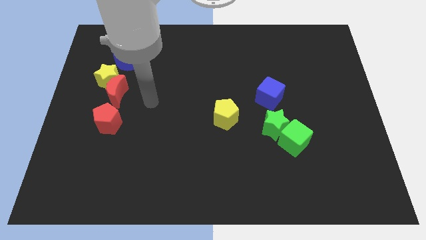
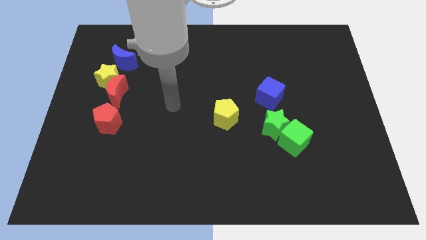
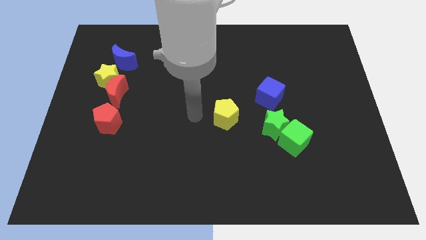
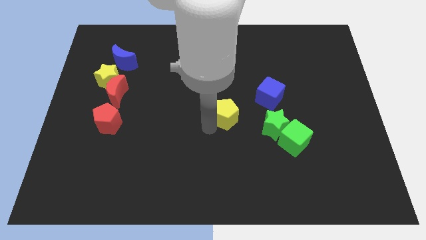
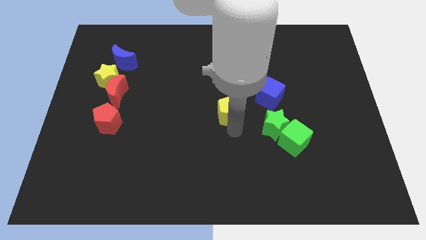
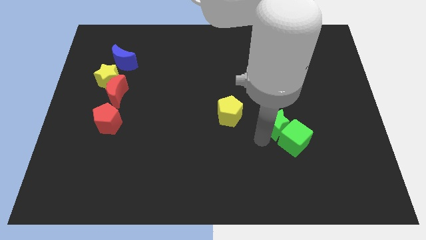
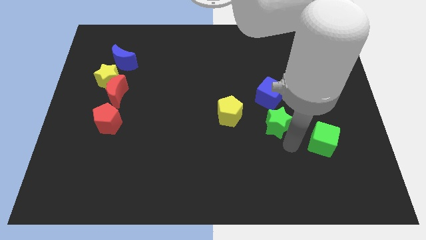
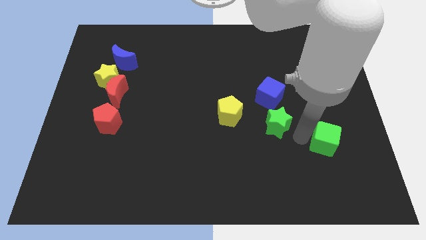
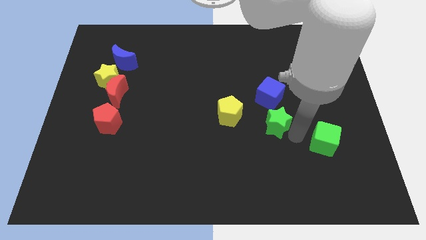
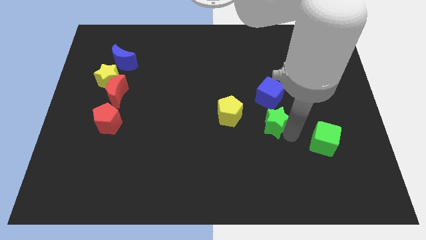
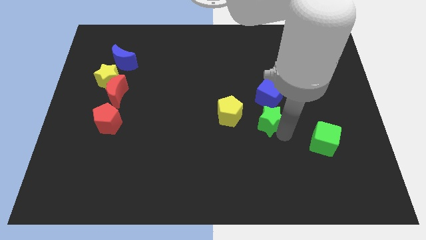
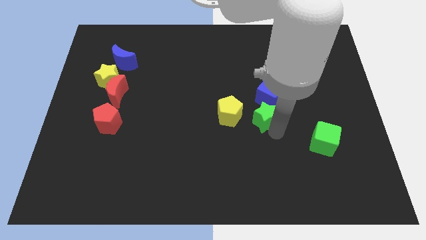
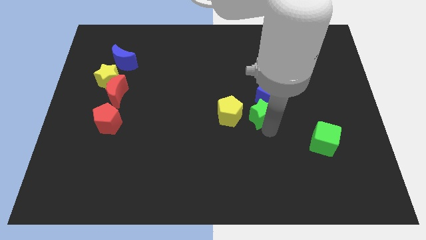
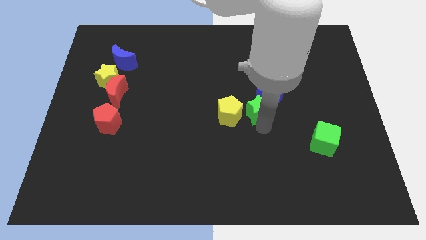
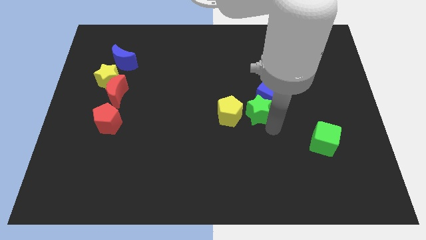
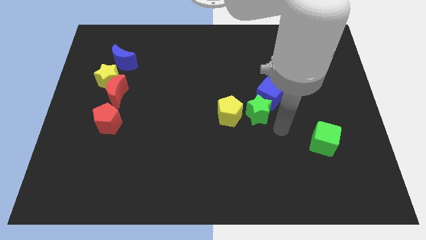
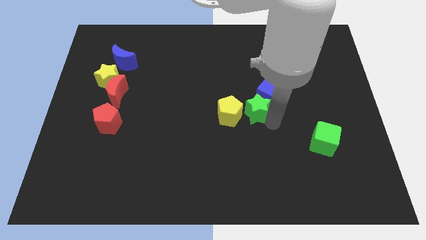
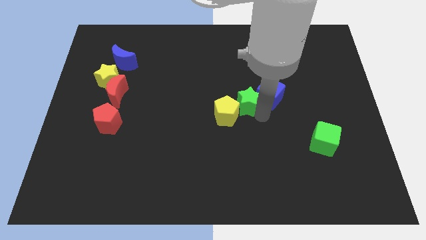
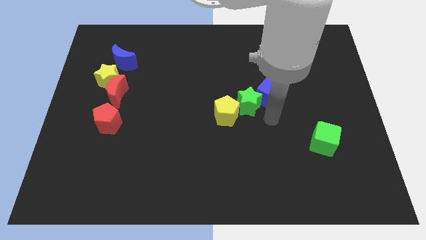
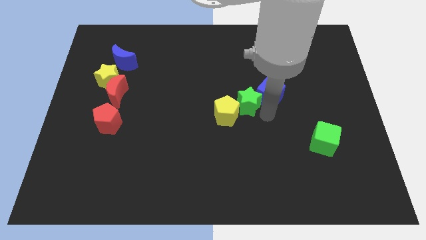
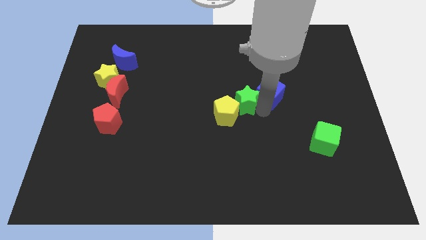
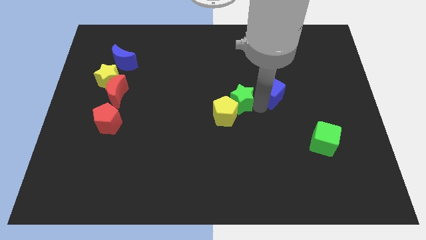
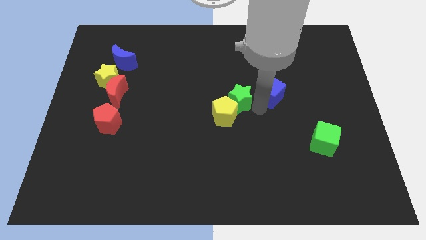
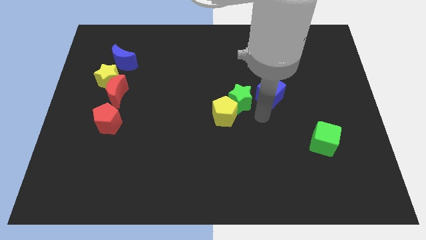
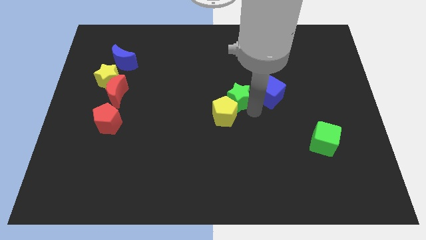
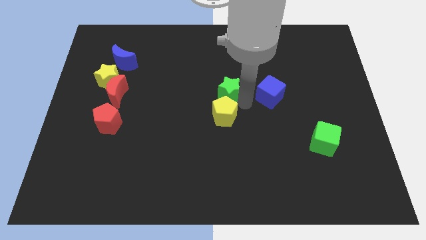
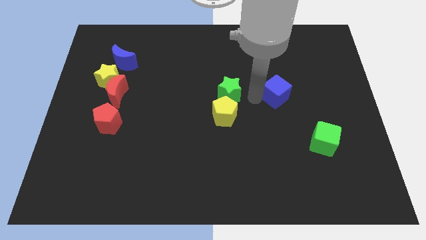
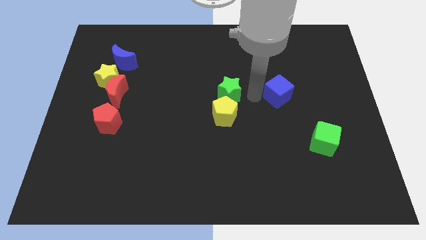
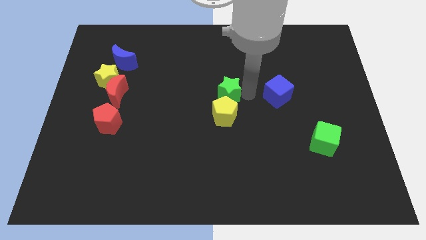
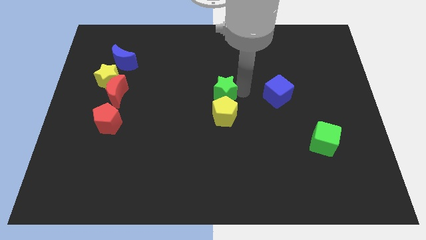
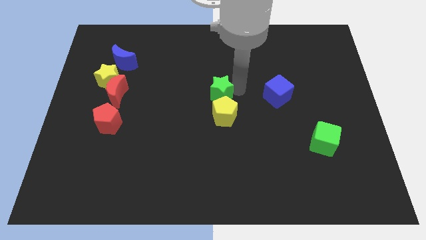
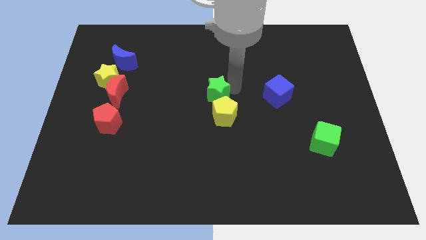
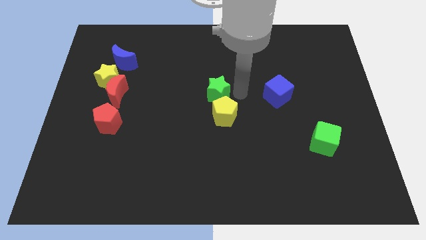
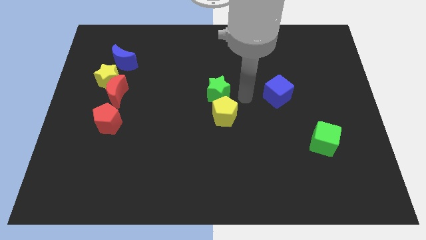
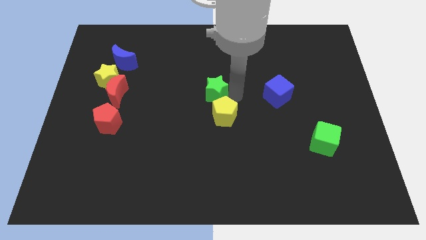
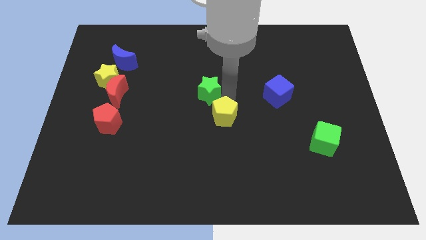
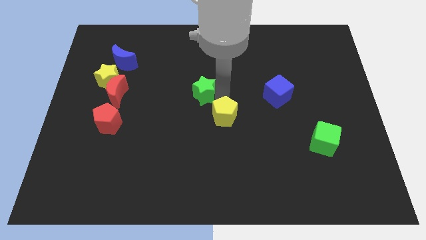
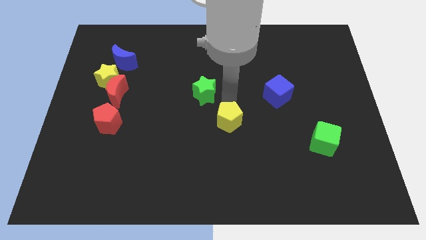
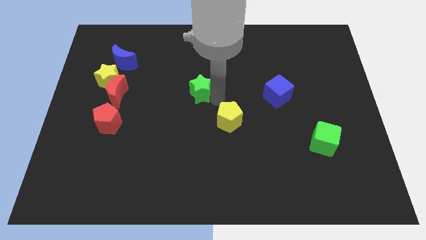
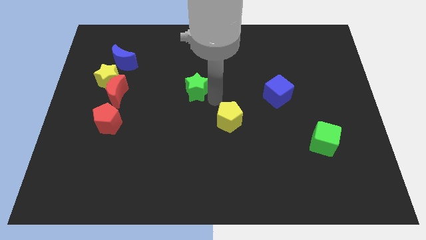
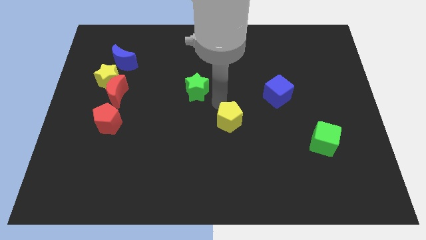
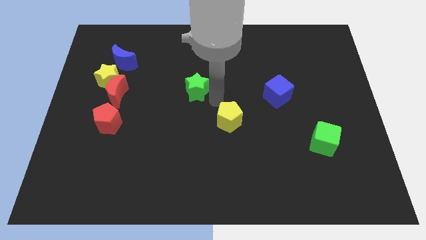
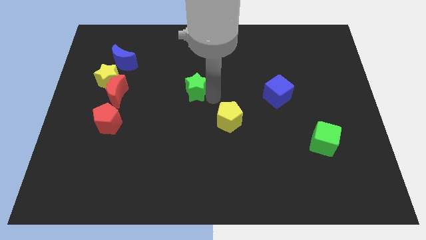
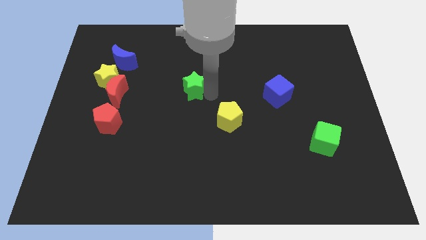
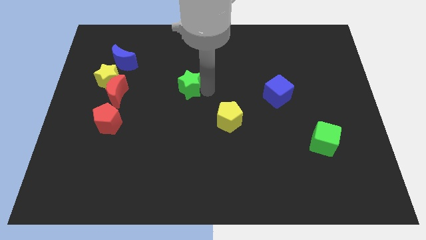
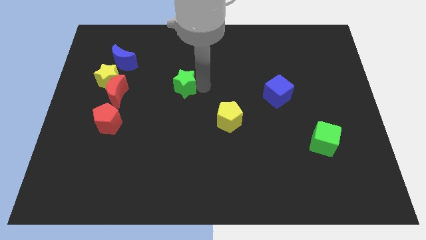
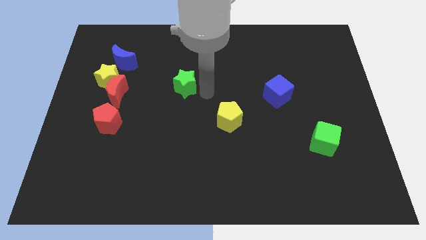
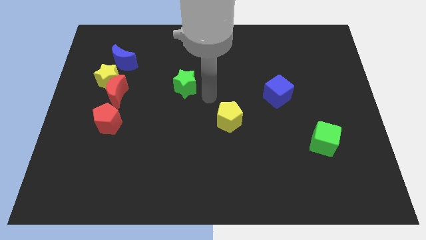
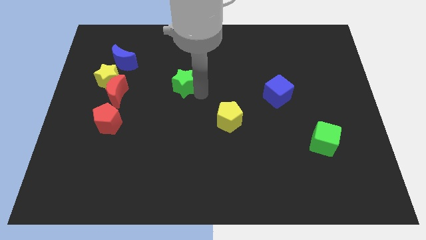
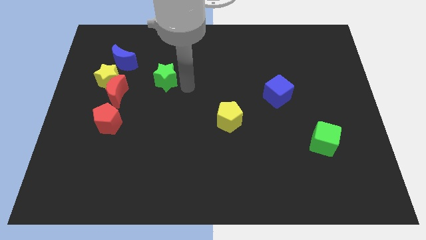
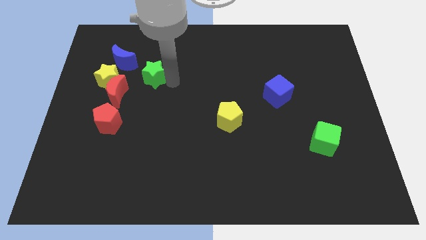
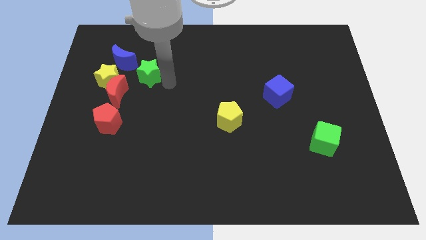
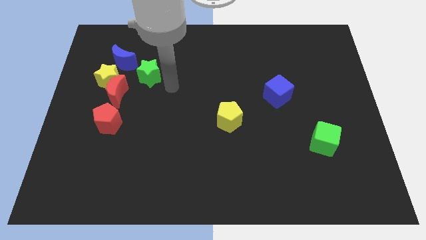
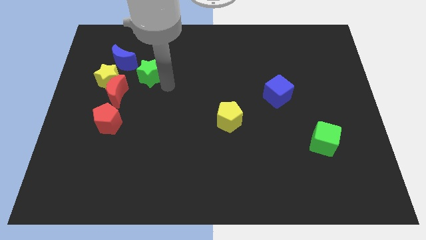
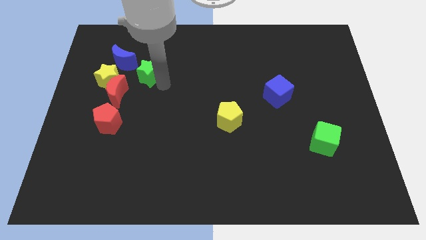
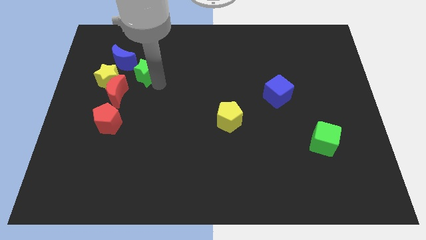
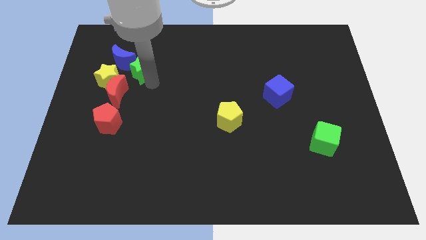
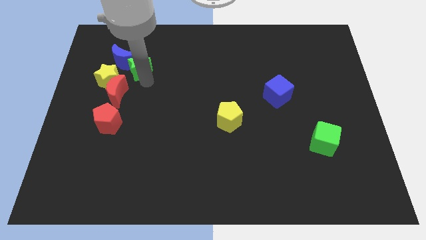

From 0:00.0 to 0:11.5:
push the green star close to the blue moon

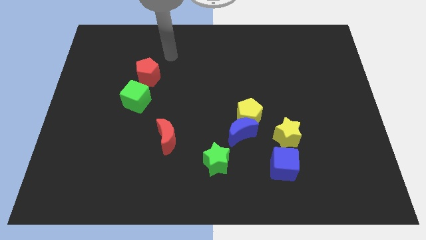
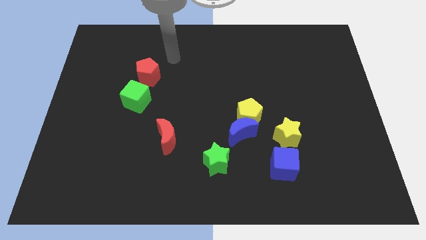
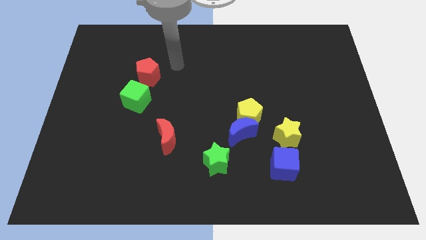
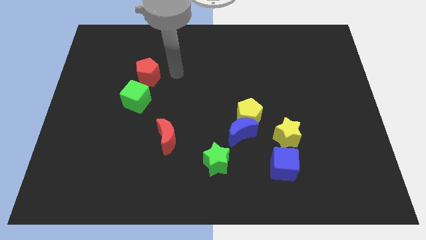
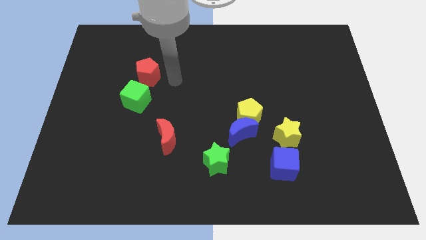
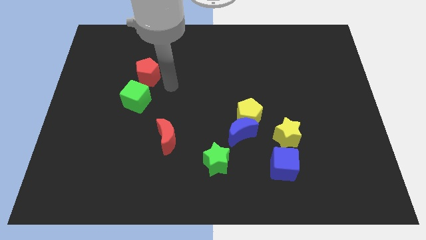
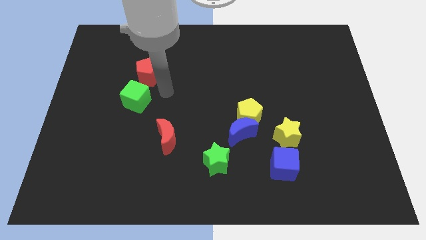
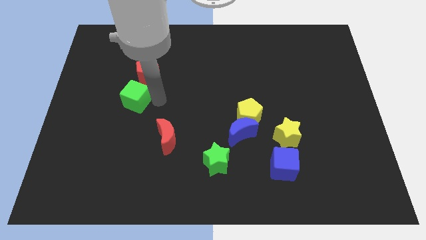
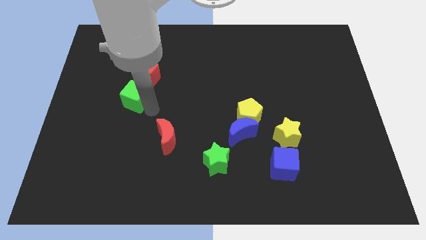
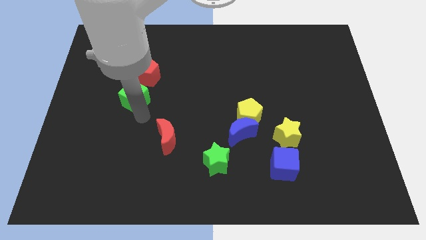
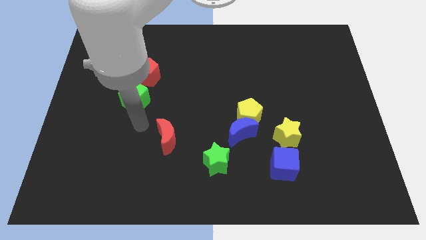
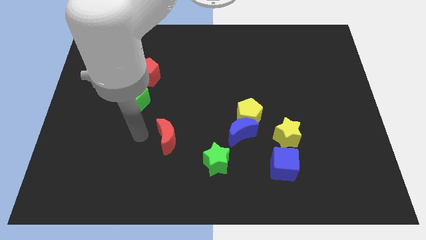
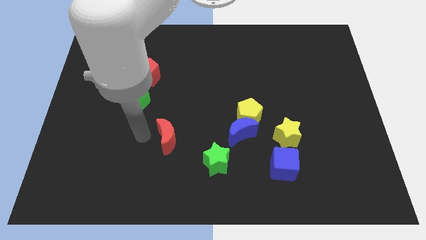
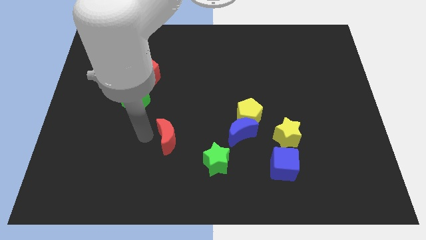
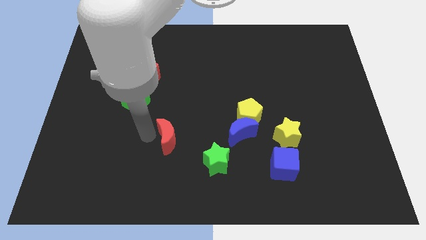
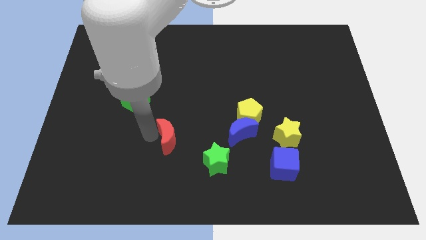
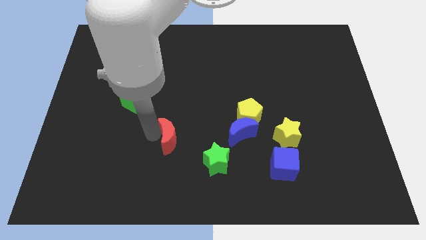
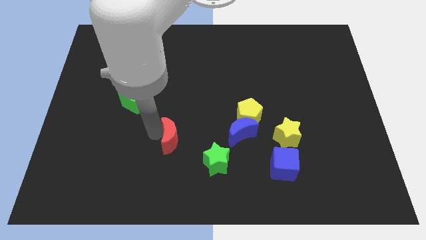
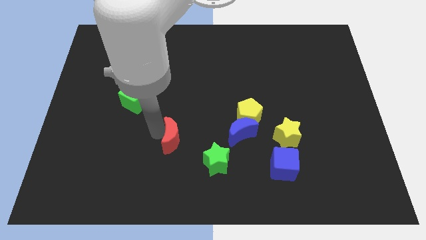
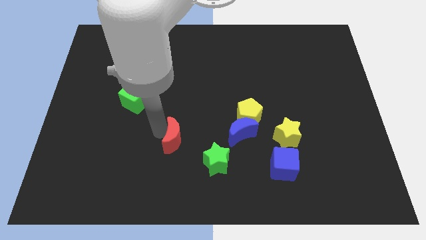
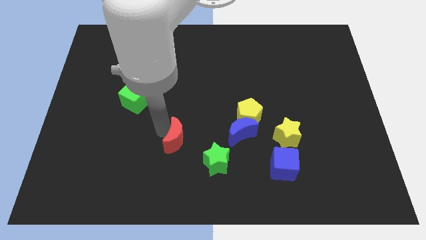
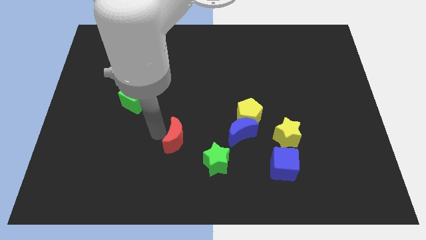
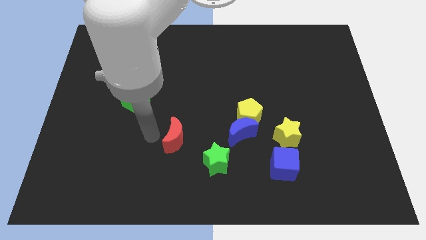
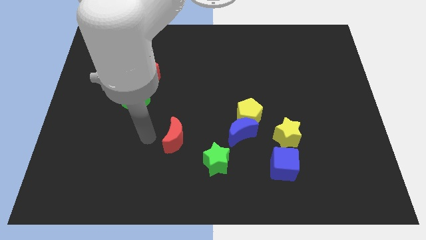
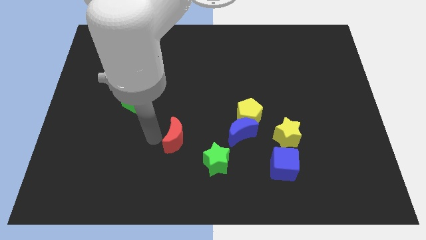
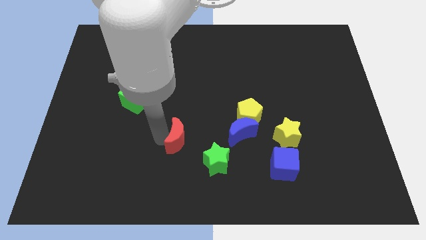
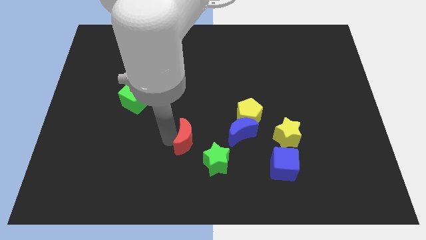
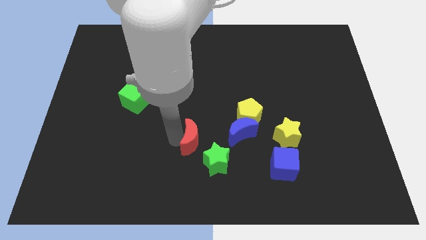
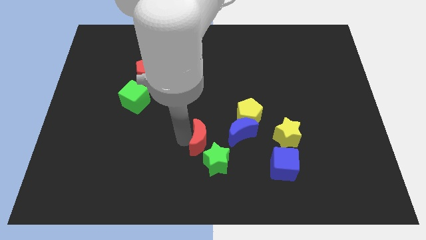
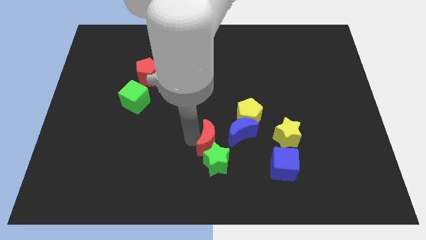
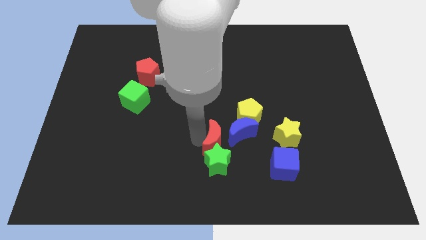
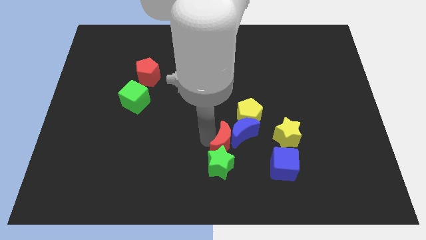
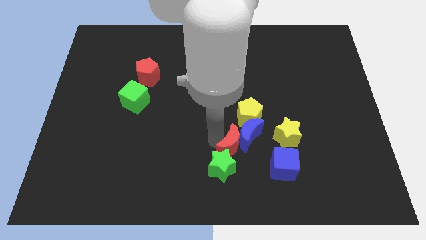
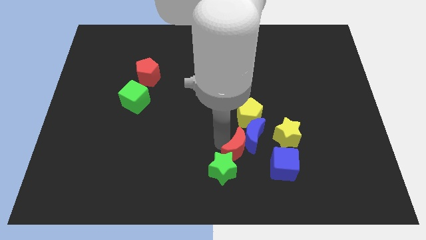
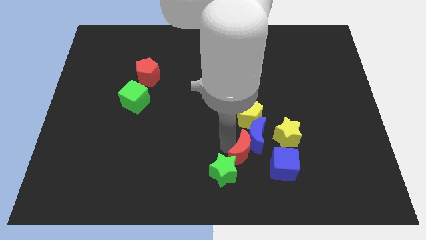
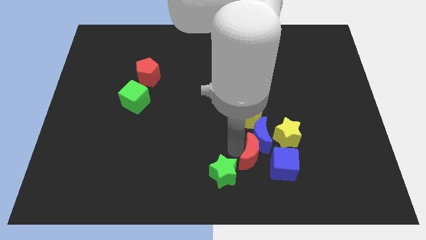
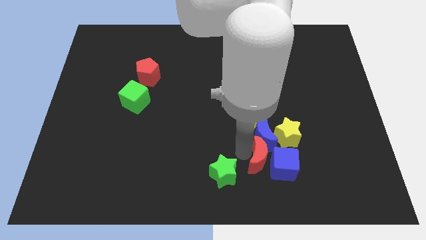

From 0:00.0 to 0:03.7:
move the red moon to the blue cube
